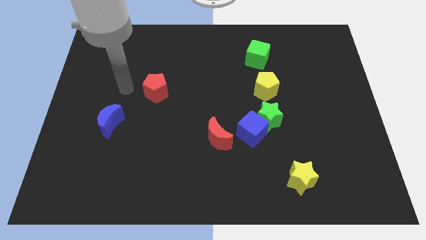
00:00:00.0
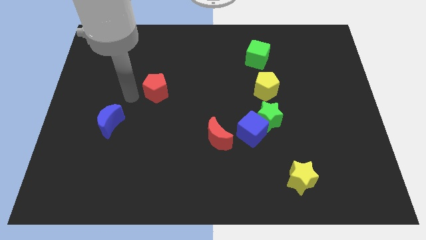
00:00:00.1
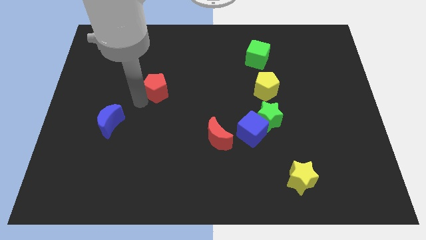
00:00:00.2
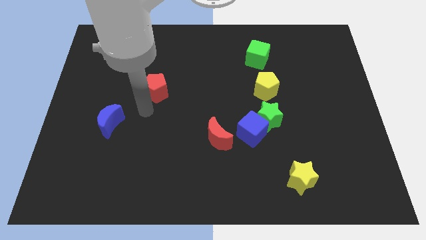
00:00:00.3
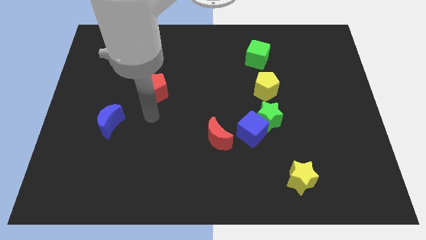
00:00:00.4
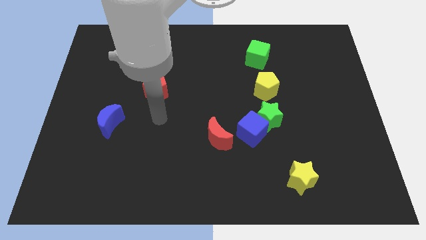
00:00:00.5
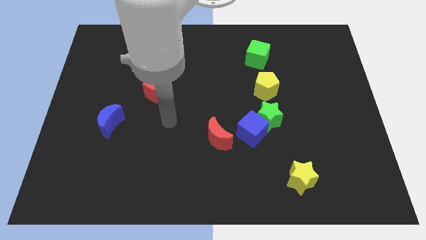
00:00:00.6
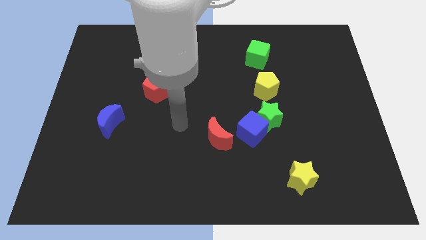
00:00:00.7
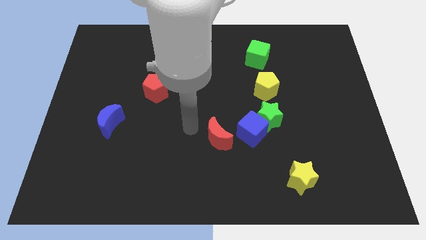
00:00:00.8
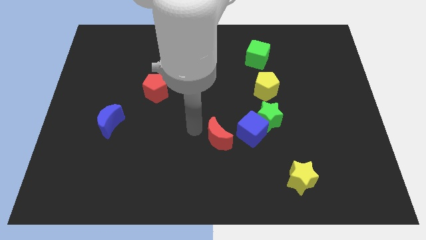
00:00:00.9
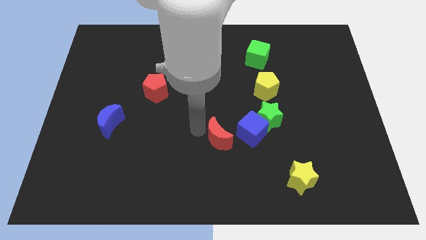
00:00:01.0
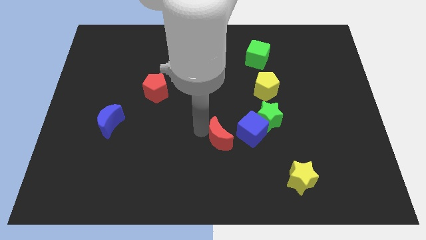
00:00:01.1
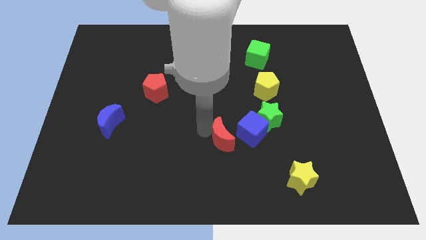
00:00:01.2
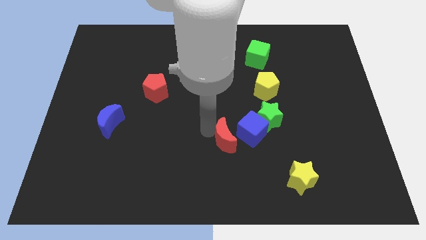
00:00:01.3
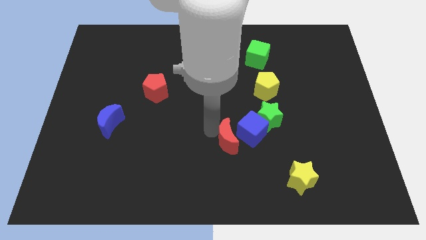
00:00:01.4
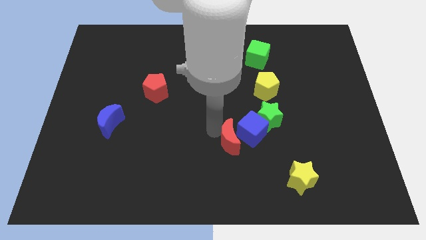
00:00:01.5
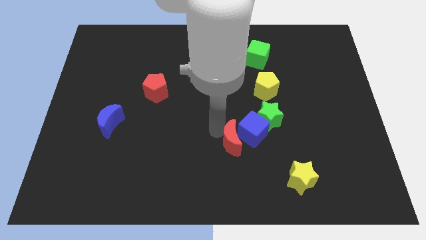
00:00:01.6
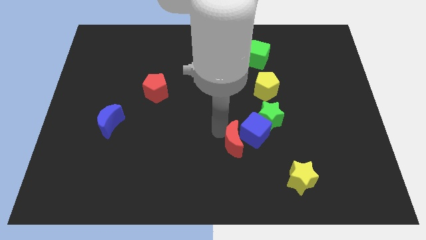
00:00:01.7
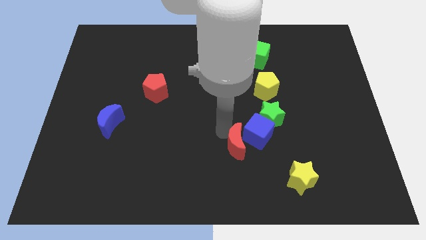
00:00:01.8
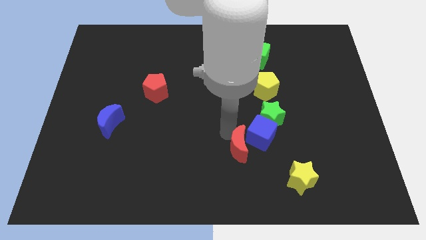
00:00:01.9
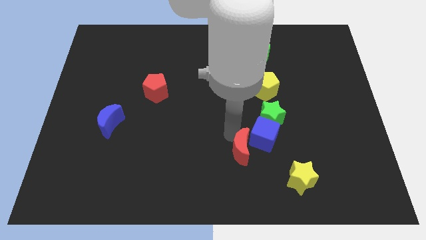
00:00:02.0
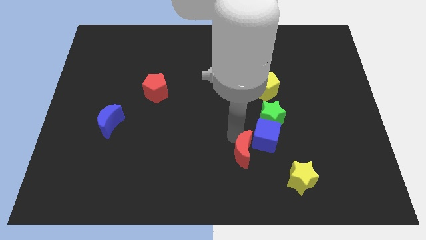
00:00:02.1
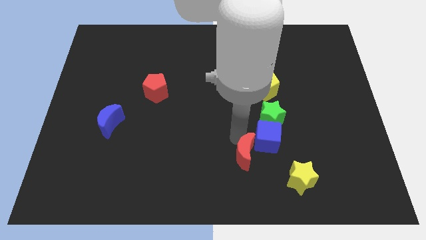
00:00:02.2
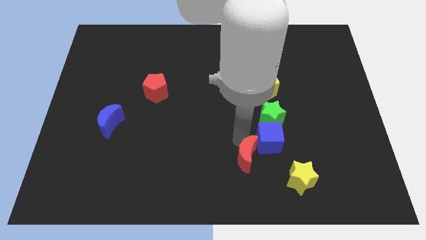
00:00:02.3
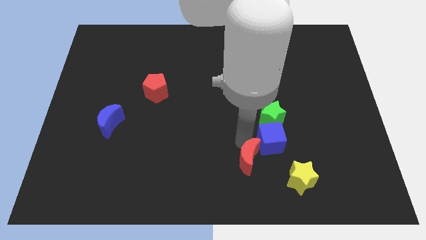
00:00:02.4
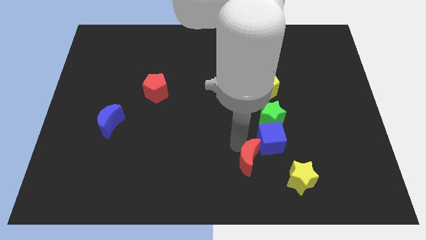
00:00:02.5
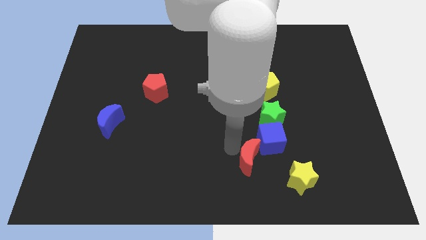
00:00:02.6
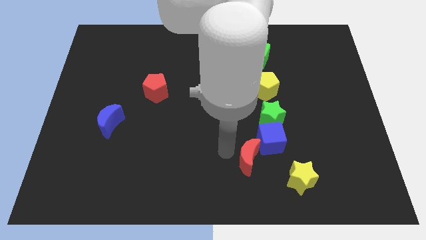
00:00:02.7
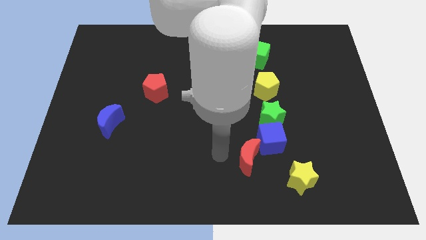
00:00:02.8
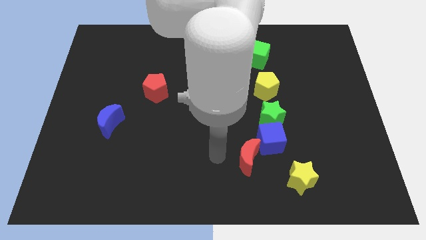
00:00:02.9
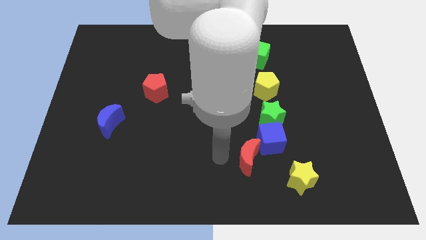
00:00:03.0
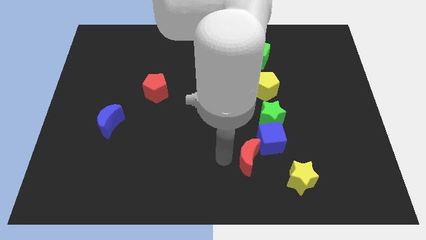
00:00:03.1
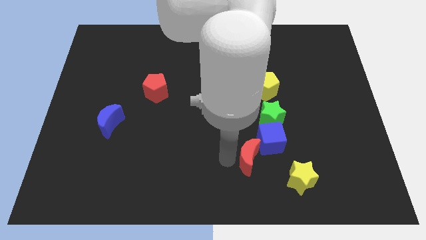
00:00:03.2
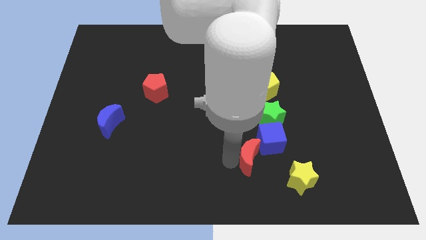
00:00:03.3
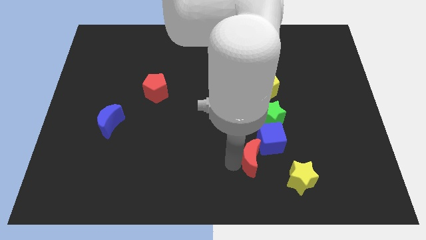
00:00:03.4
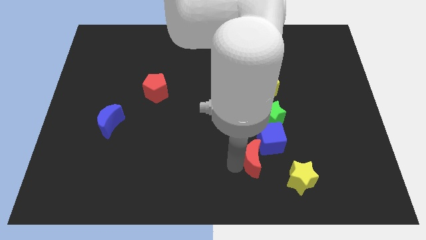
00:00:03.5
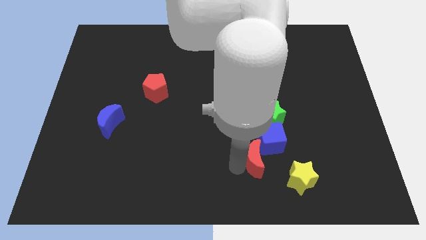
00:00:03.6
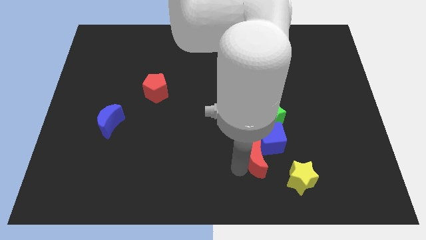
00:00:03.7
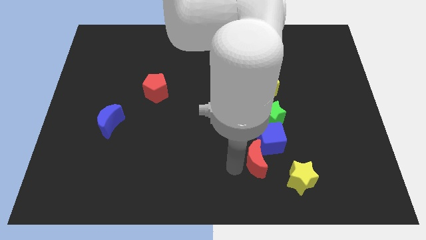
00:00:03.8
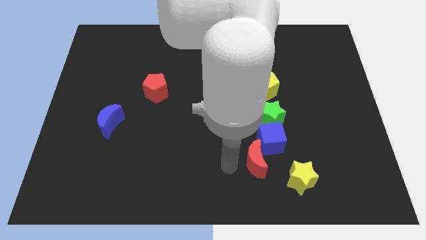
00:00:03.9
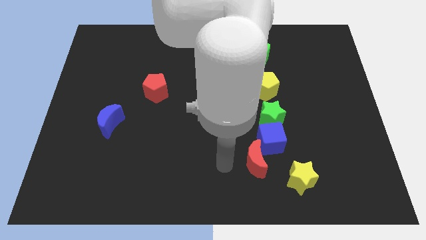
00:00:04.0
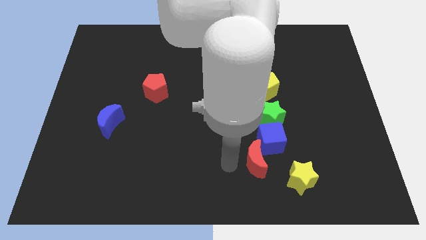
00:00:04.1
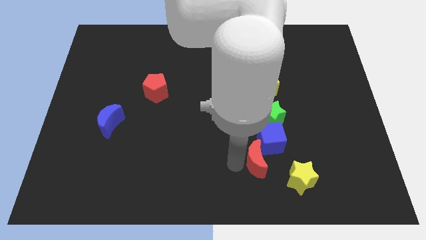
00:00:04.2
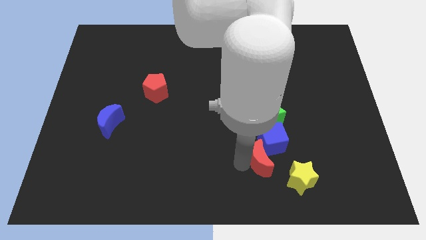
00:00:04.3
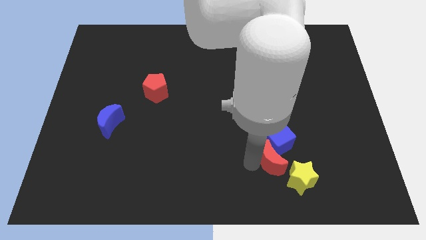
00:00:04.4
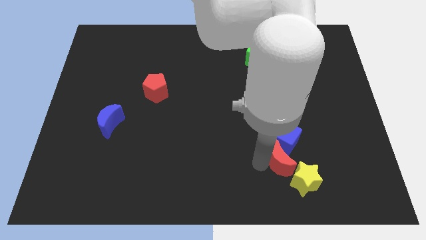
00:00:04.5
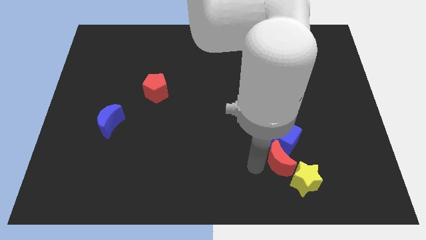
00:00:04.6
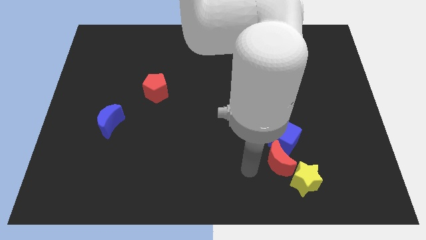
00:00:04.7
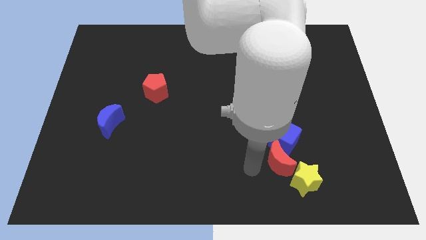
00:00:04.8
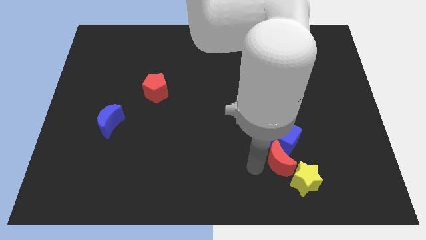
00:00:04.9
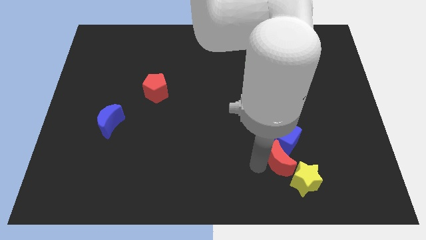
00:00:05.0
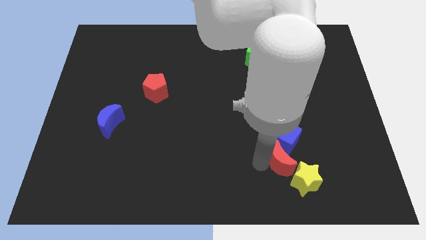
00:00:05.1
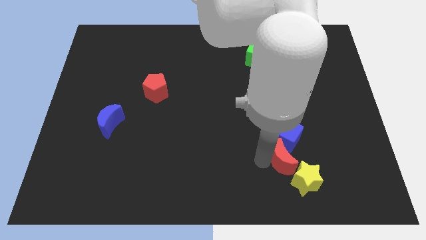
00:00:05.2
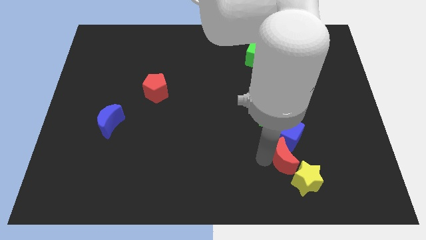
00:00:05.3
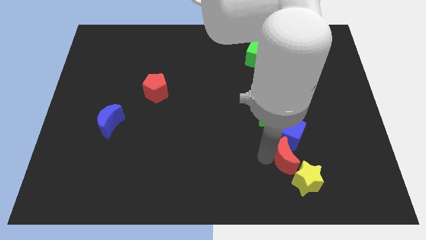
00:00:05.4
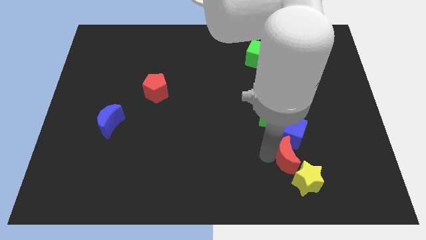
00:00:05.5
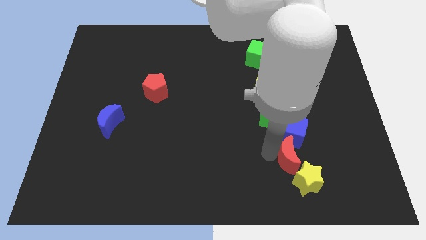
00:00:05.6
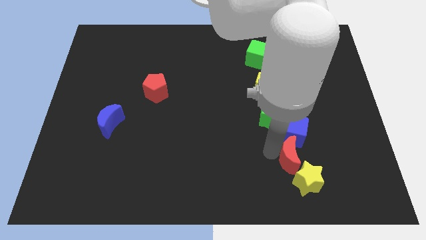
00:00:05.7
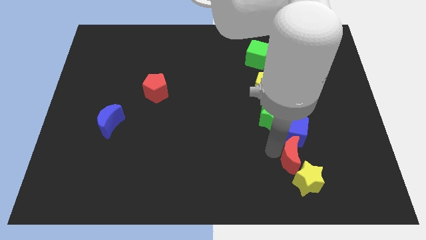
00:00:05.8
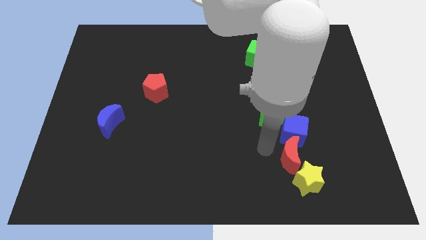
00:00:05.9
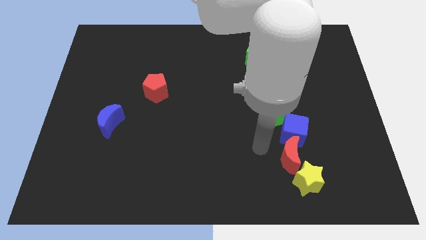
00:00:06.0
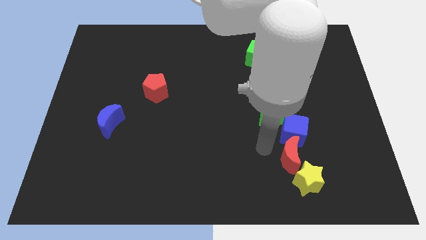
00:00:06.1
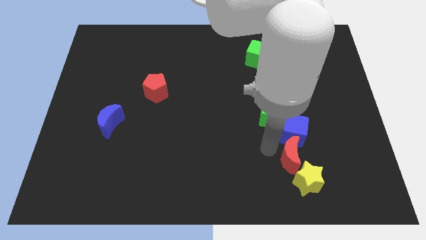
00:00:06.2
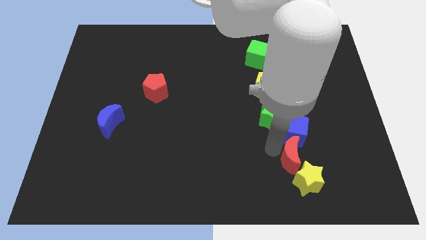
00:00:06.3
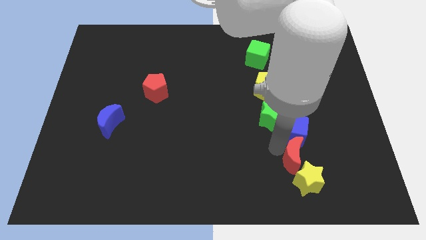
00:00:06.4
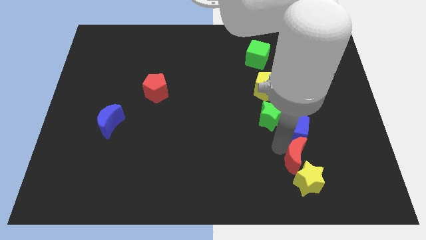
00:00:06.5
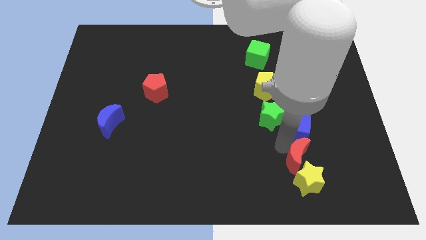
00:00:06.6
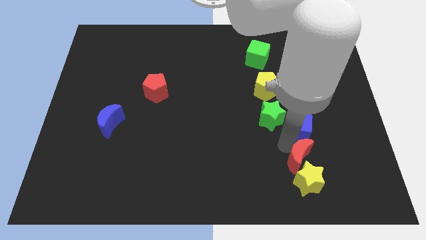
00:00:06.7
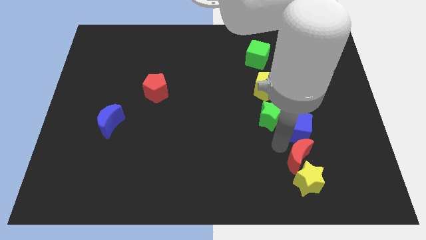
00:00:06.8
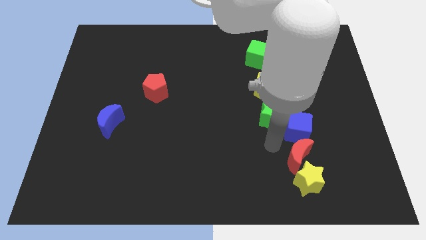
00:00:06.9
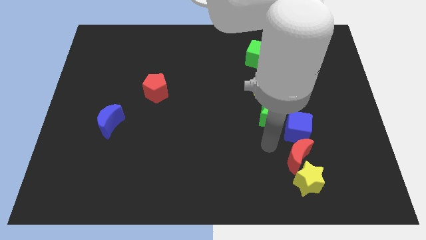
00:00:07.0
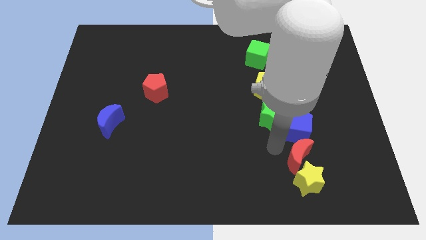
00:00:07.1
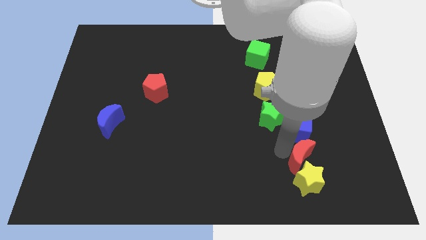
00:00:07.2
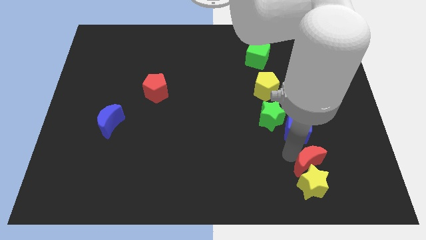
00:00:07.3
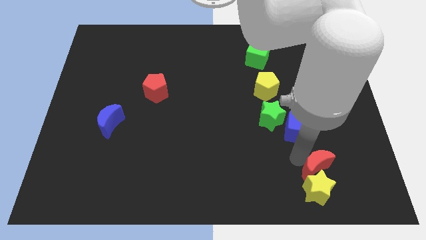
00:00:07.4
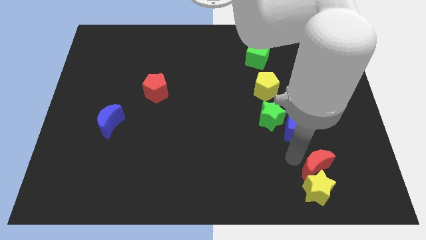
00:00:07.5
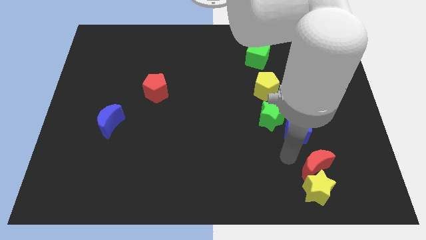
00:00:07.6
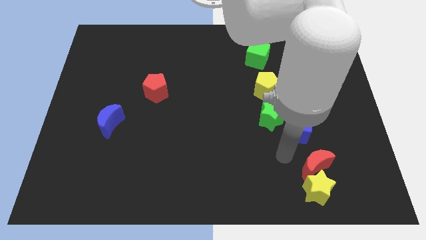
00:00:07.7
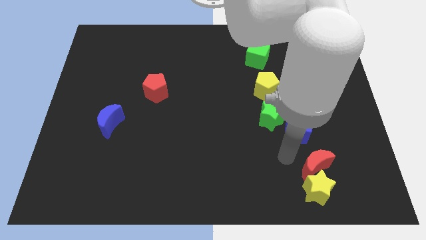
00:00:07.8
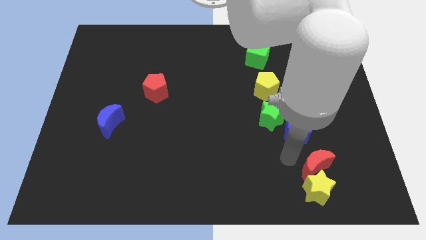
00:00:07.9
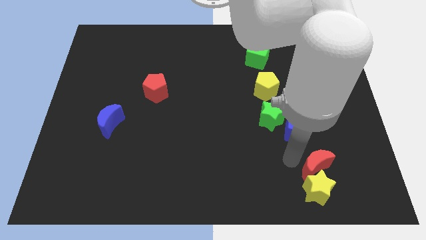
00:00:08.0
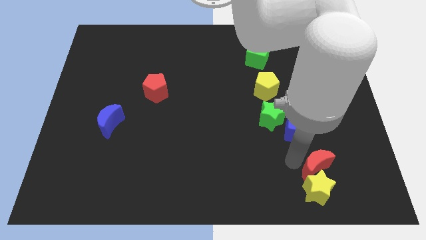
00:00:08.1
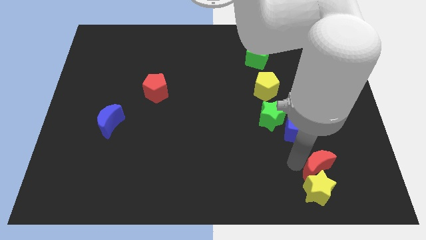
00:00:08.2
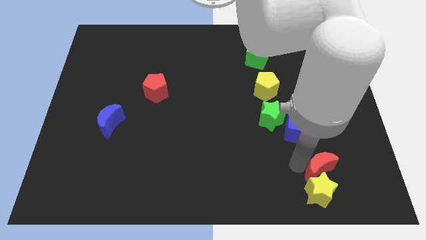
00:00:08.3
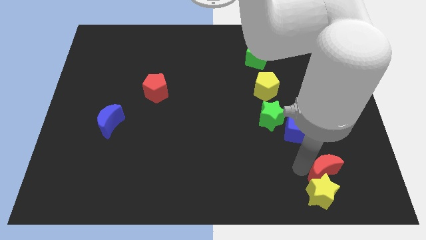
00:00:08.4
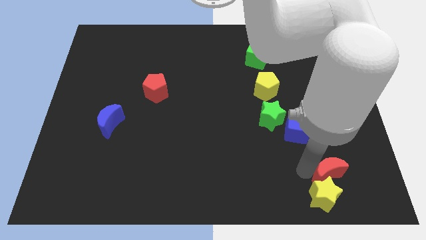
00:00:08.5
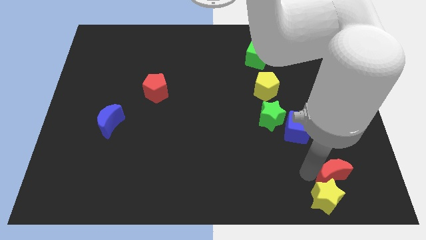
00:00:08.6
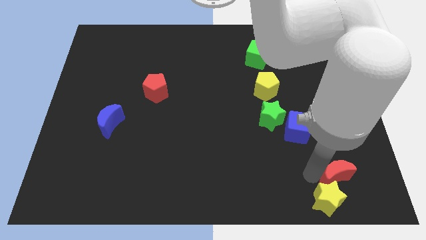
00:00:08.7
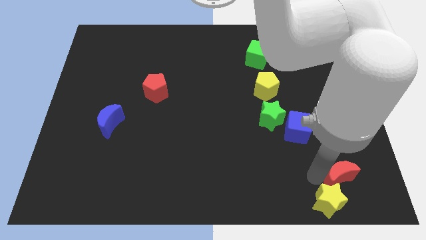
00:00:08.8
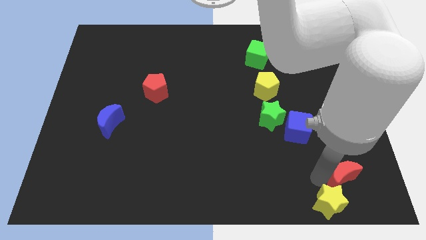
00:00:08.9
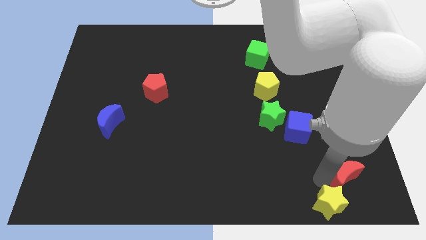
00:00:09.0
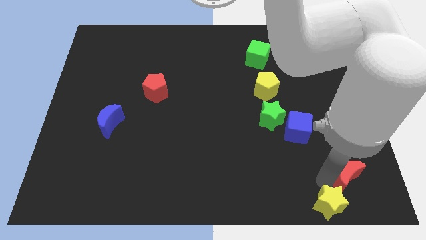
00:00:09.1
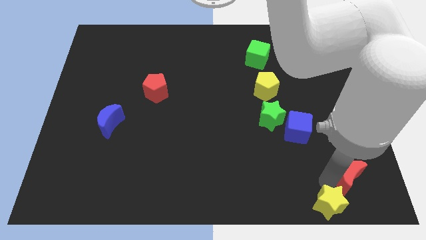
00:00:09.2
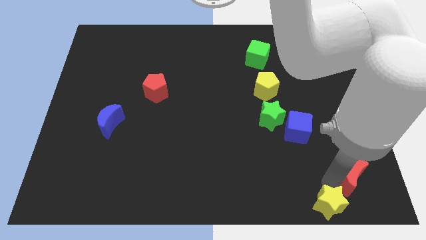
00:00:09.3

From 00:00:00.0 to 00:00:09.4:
slide the red moon to the lower right corner
